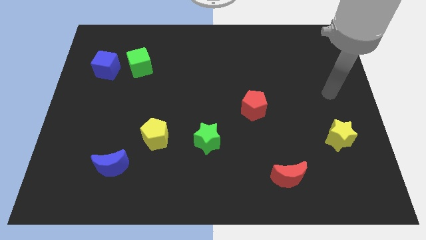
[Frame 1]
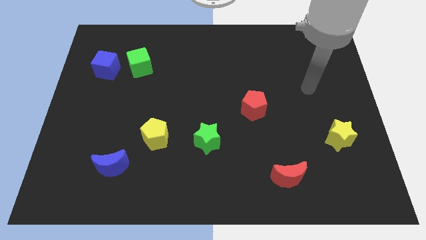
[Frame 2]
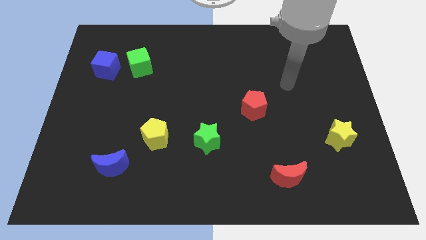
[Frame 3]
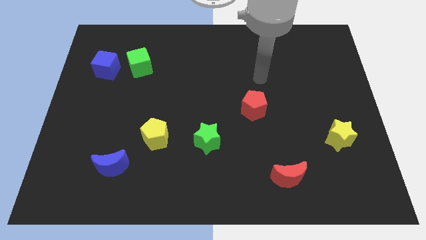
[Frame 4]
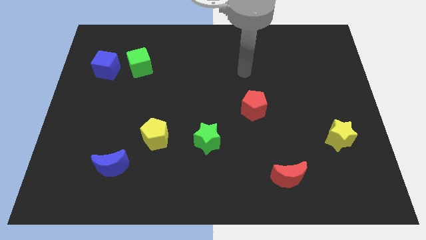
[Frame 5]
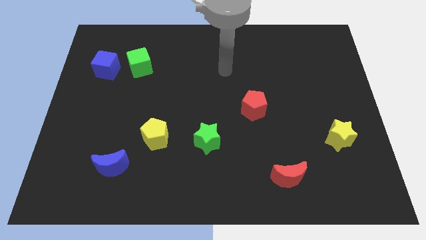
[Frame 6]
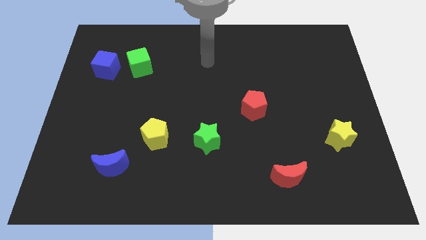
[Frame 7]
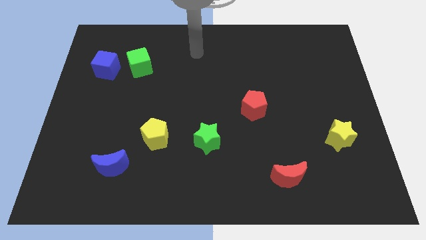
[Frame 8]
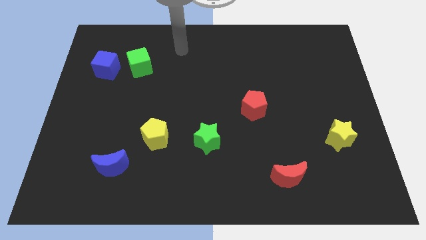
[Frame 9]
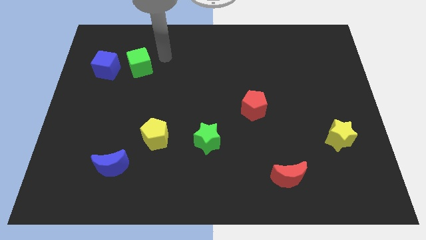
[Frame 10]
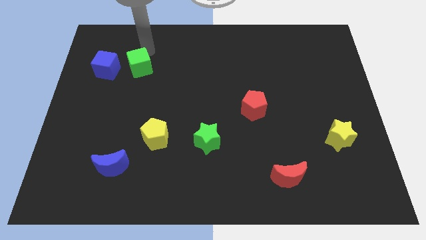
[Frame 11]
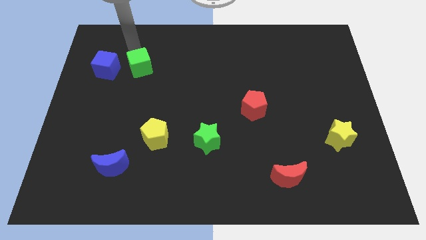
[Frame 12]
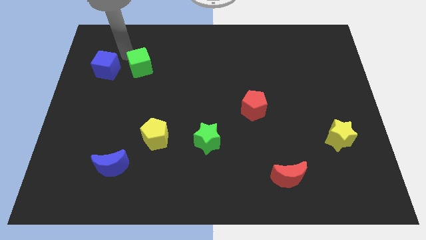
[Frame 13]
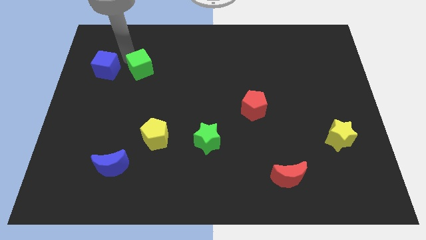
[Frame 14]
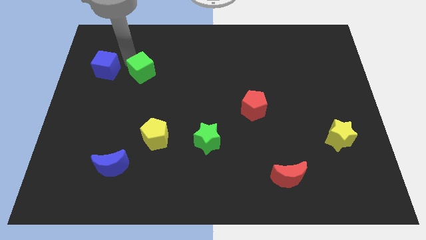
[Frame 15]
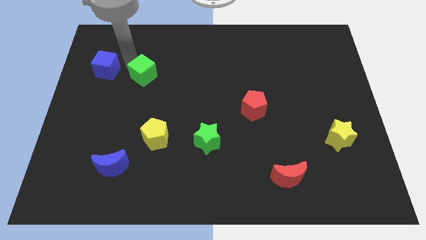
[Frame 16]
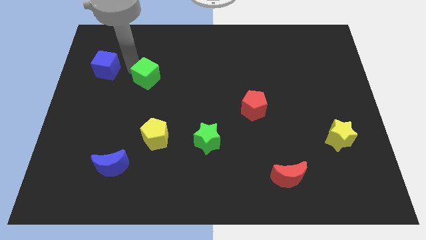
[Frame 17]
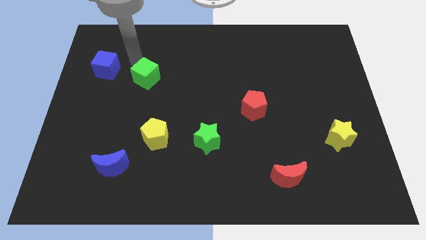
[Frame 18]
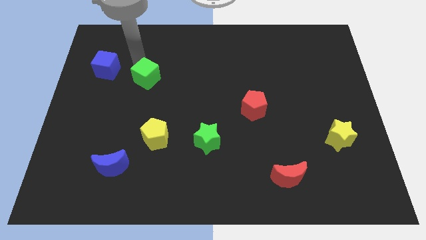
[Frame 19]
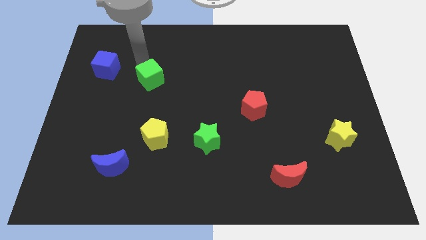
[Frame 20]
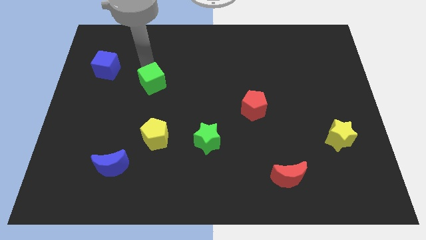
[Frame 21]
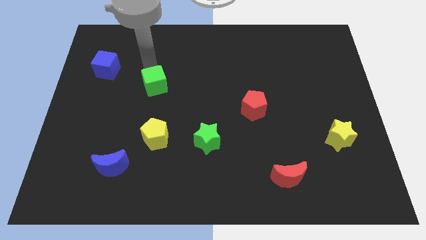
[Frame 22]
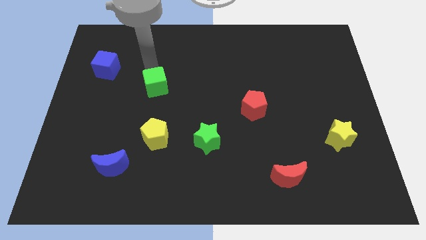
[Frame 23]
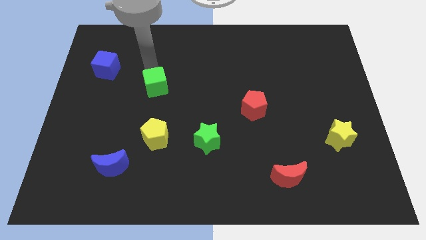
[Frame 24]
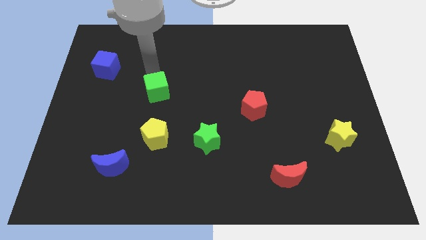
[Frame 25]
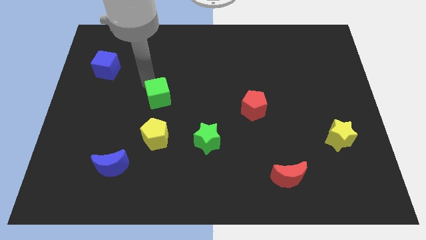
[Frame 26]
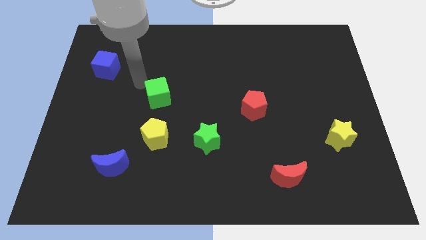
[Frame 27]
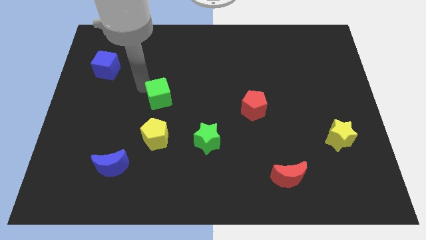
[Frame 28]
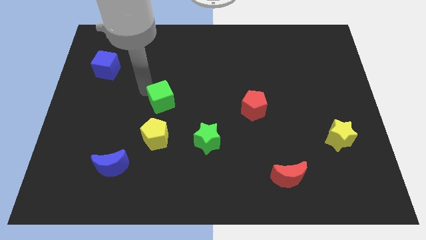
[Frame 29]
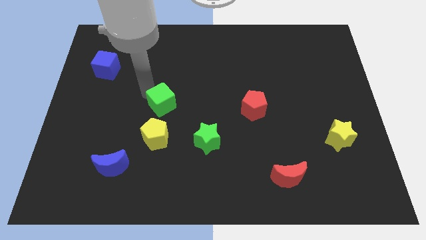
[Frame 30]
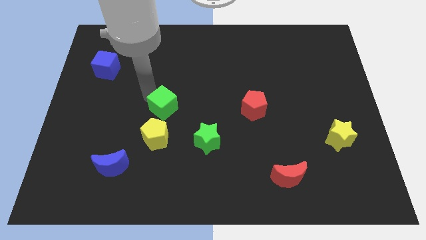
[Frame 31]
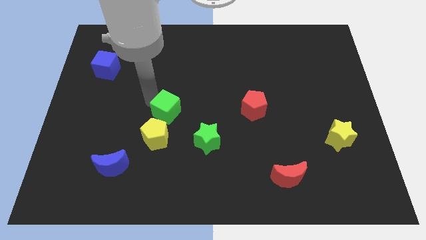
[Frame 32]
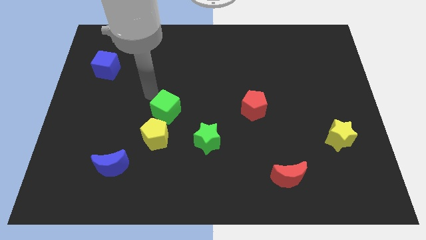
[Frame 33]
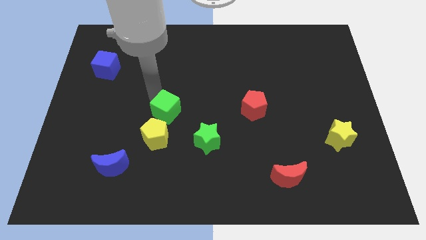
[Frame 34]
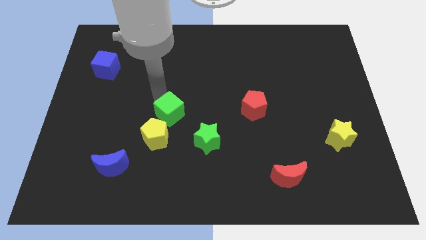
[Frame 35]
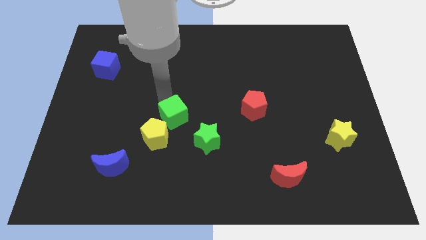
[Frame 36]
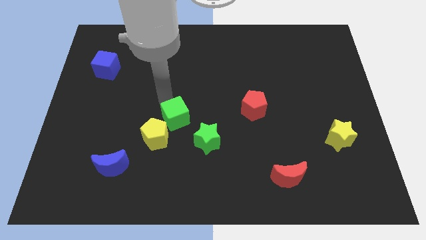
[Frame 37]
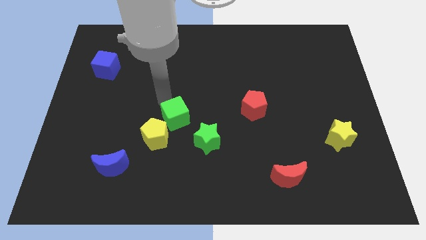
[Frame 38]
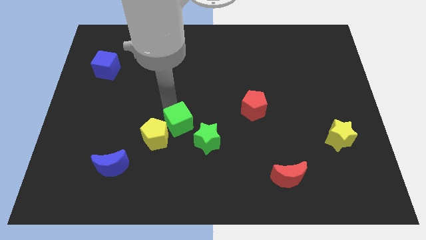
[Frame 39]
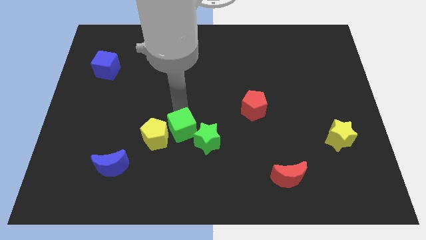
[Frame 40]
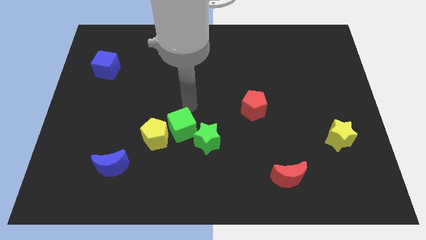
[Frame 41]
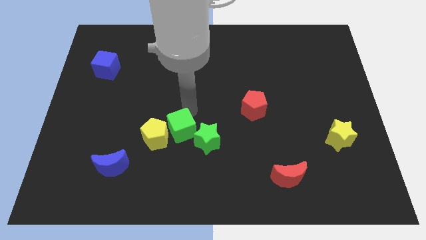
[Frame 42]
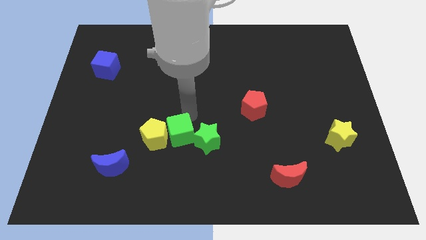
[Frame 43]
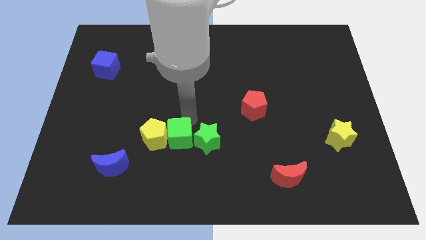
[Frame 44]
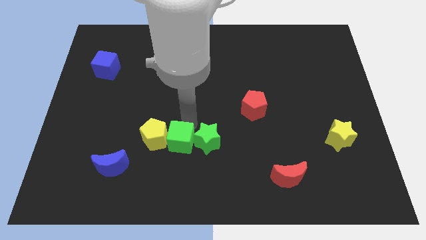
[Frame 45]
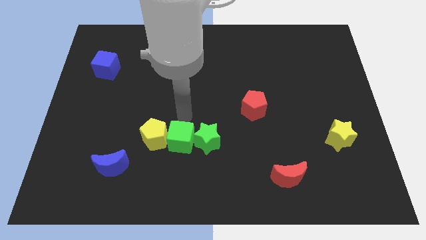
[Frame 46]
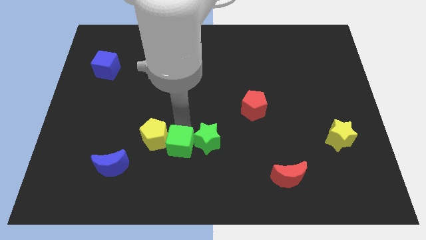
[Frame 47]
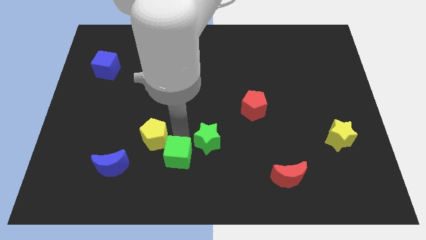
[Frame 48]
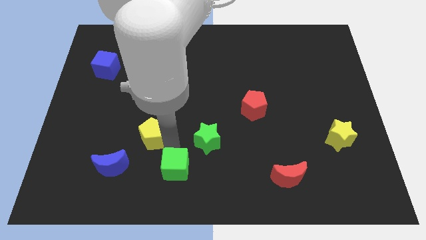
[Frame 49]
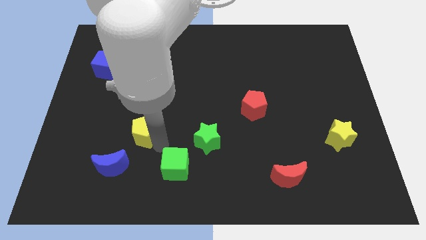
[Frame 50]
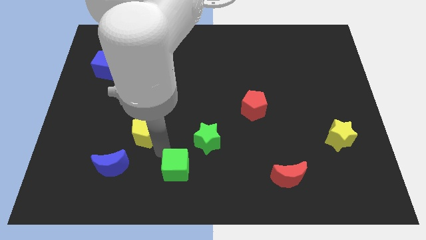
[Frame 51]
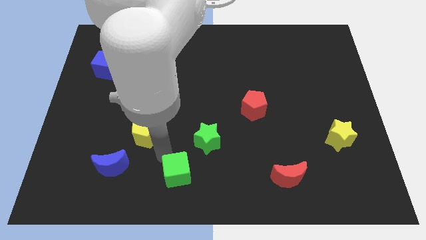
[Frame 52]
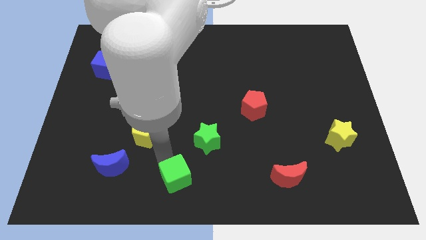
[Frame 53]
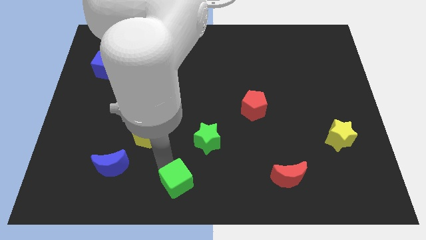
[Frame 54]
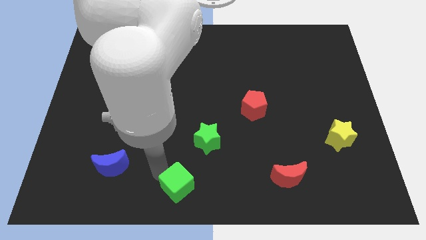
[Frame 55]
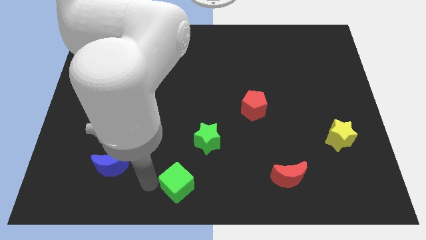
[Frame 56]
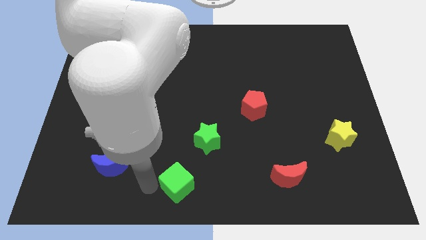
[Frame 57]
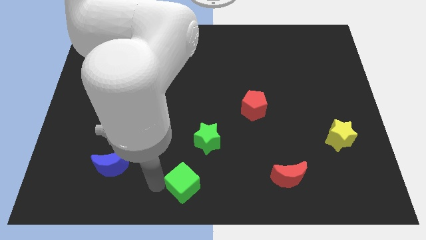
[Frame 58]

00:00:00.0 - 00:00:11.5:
move the green cube to the bottom side of the green star
